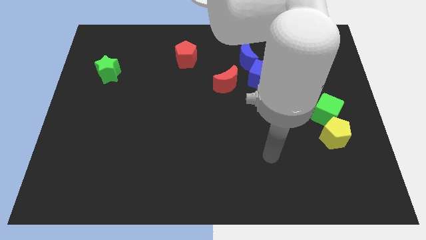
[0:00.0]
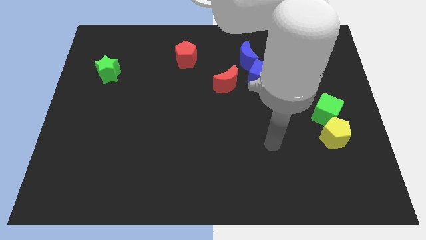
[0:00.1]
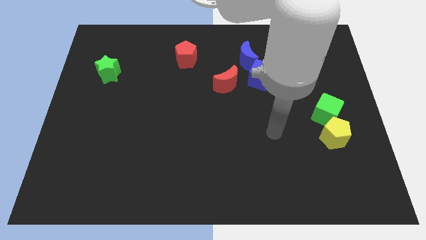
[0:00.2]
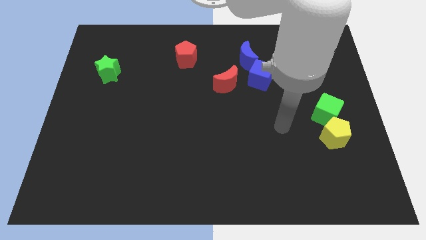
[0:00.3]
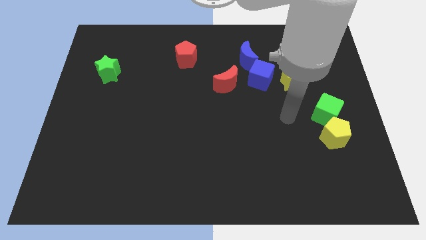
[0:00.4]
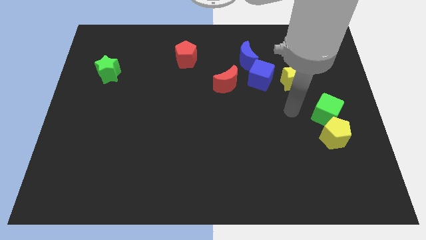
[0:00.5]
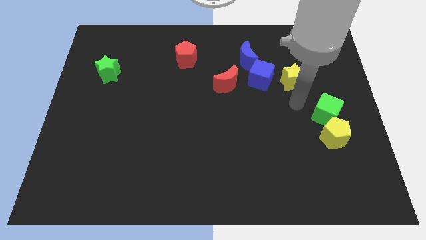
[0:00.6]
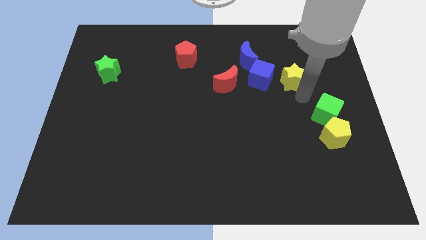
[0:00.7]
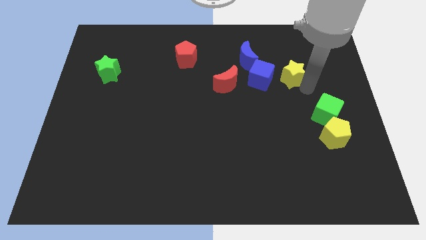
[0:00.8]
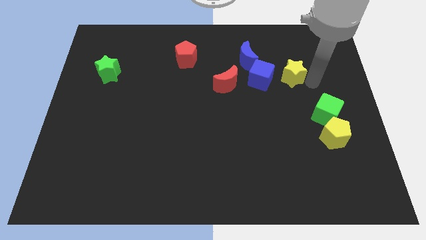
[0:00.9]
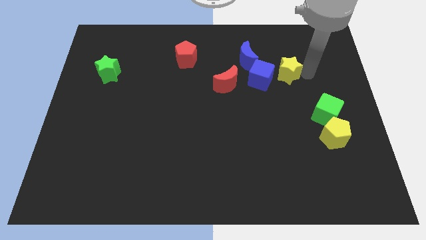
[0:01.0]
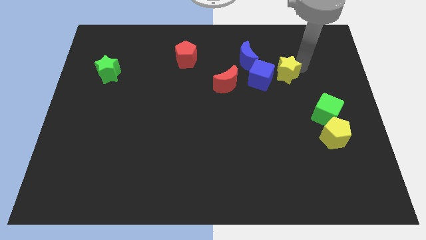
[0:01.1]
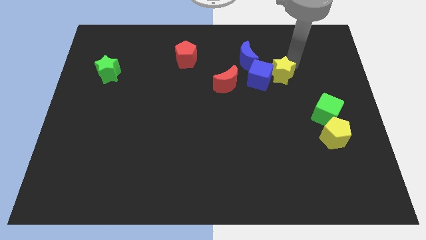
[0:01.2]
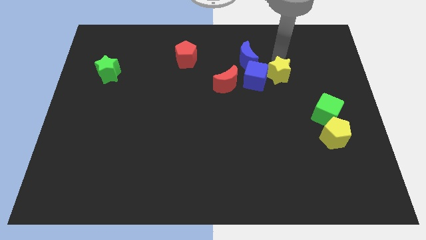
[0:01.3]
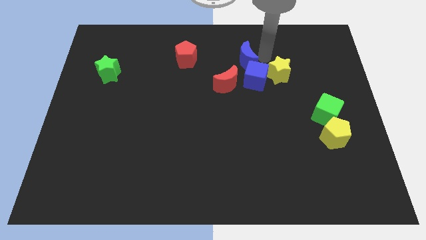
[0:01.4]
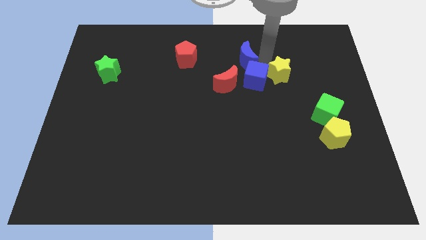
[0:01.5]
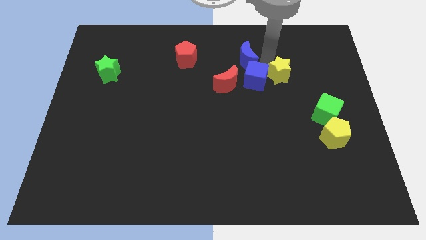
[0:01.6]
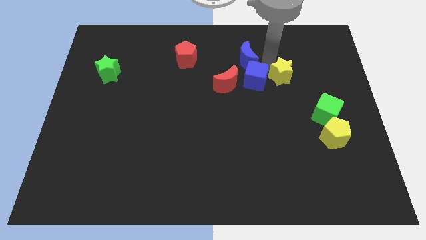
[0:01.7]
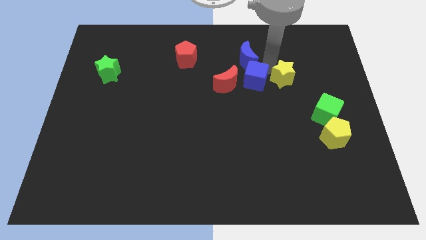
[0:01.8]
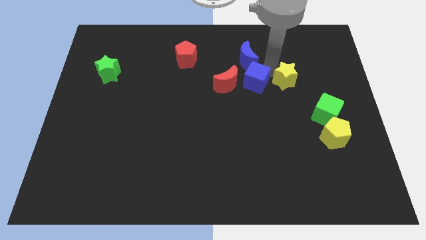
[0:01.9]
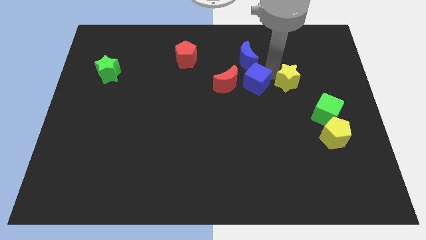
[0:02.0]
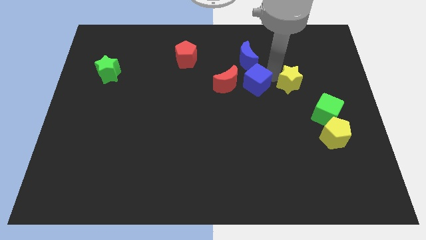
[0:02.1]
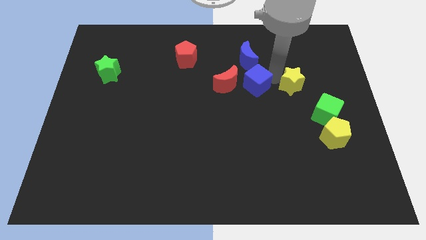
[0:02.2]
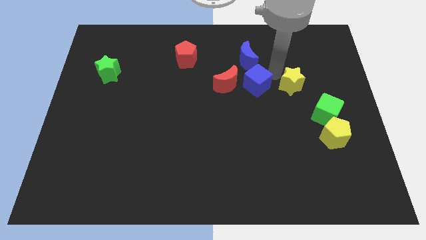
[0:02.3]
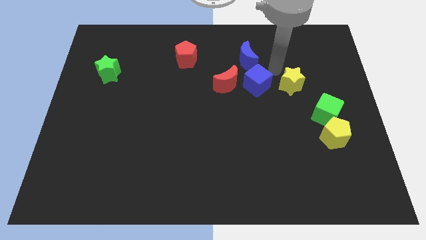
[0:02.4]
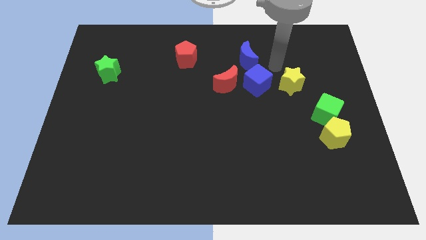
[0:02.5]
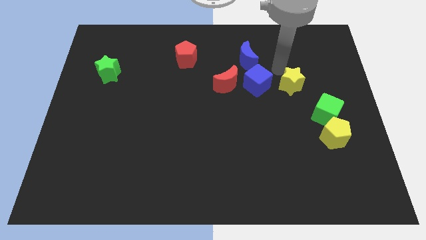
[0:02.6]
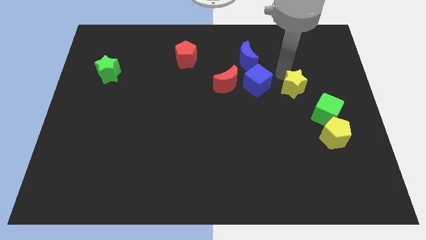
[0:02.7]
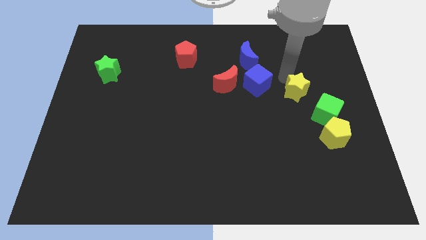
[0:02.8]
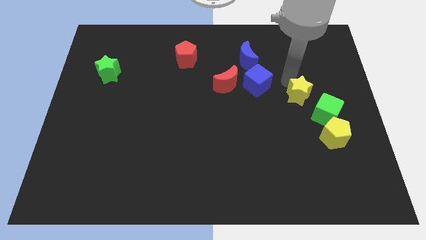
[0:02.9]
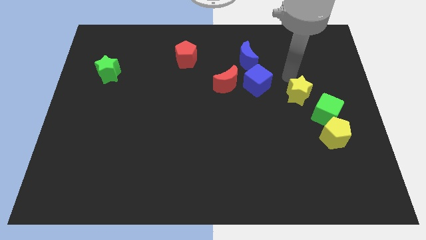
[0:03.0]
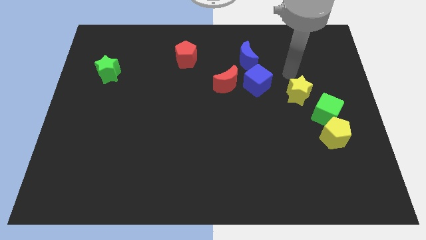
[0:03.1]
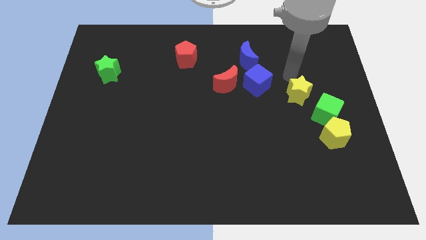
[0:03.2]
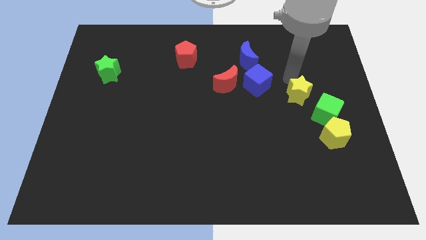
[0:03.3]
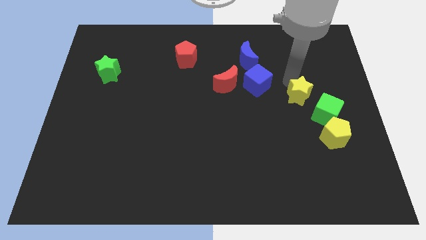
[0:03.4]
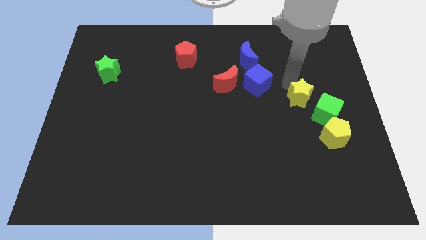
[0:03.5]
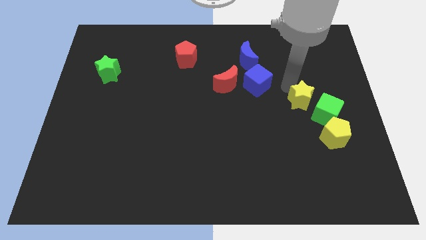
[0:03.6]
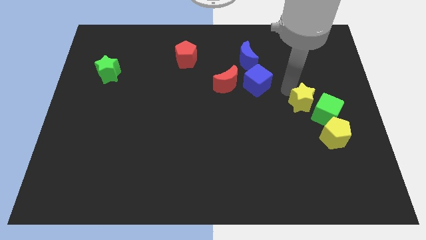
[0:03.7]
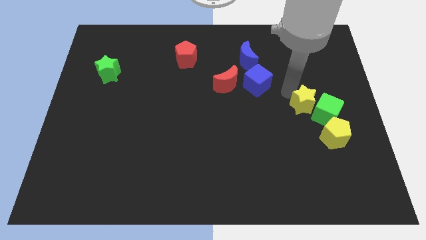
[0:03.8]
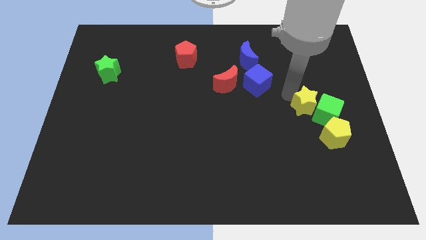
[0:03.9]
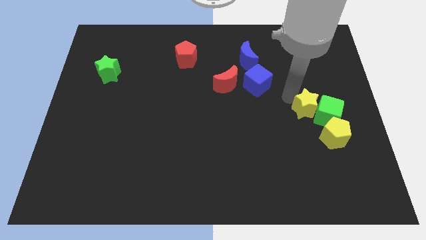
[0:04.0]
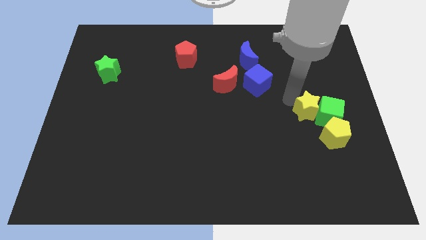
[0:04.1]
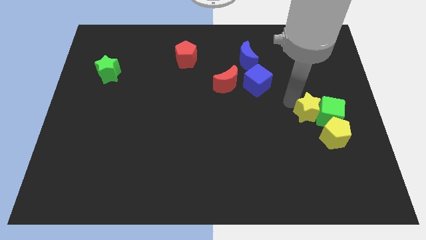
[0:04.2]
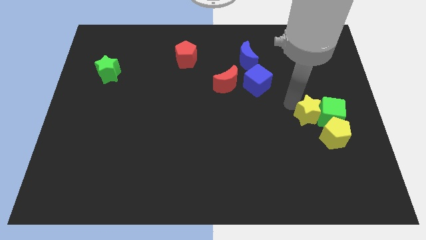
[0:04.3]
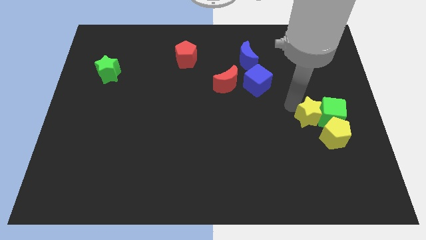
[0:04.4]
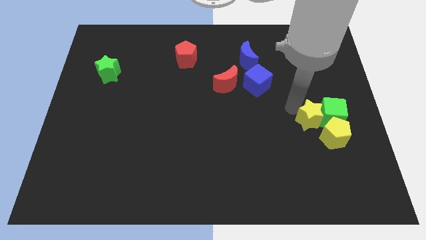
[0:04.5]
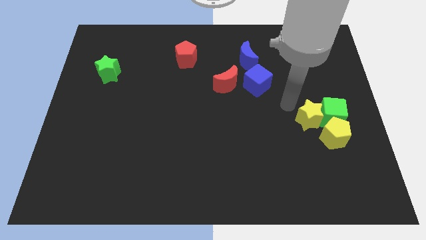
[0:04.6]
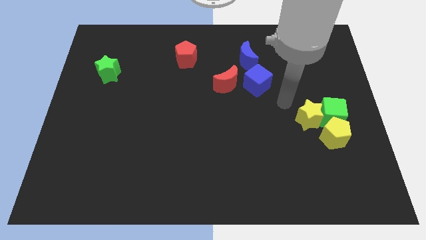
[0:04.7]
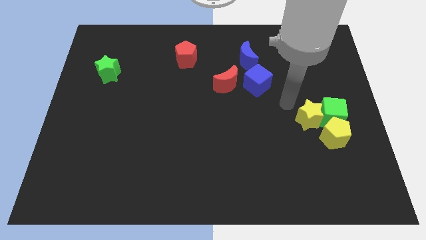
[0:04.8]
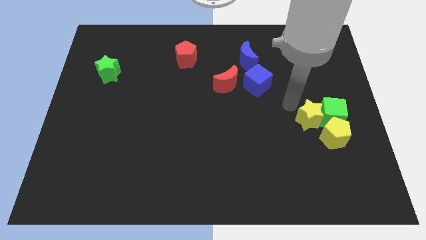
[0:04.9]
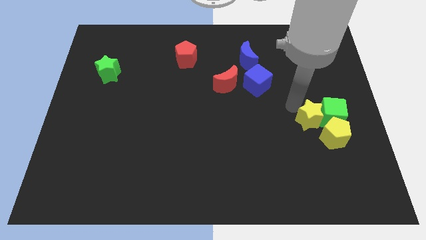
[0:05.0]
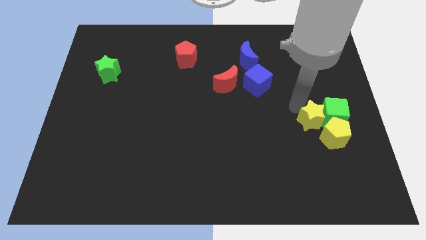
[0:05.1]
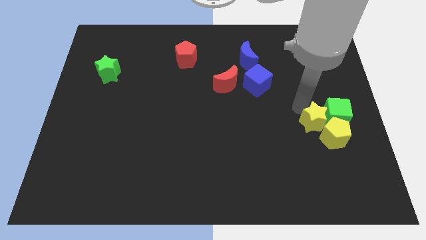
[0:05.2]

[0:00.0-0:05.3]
put the yellow star towards the yellow pentagon

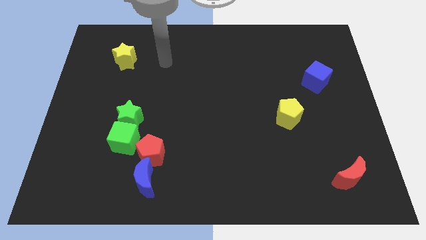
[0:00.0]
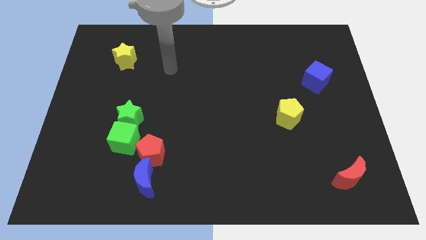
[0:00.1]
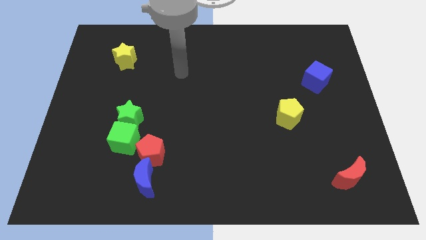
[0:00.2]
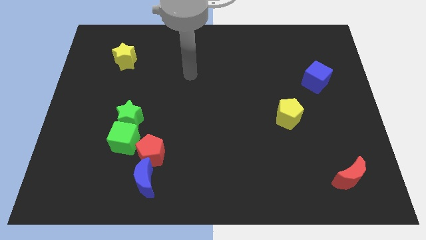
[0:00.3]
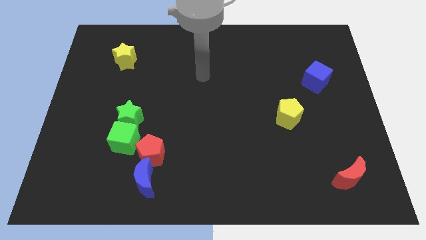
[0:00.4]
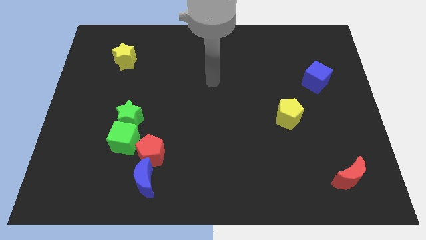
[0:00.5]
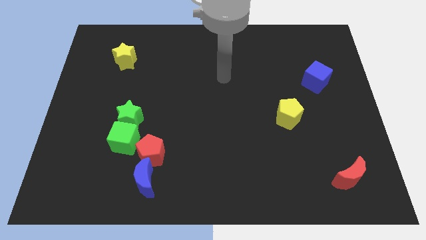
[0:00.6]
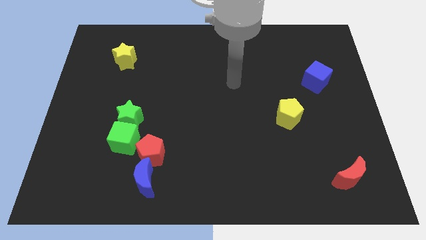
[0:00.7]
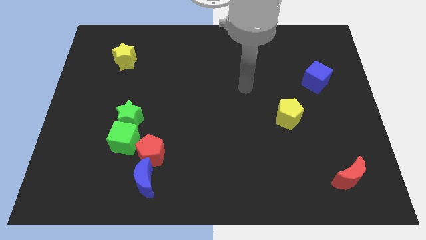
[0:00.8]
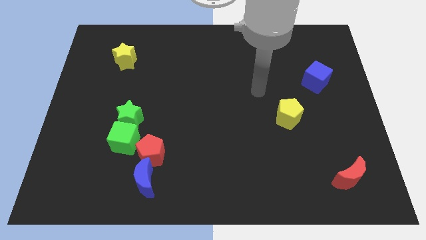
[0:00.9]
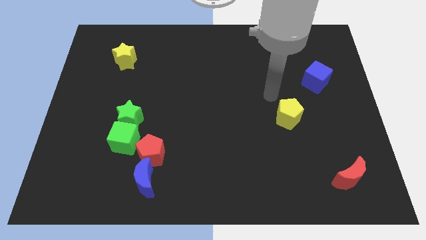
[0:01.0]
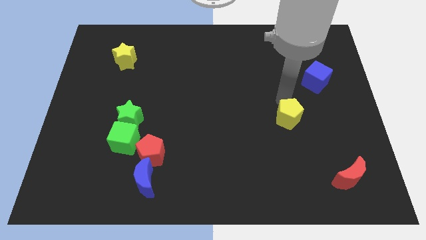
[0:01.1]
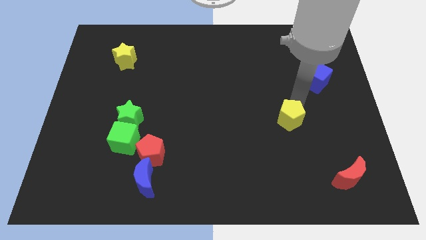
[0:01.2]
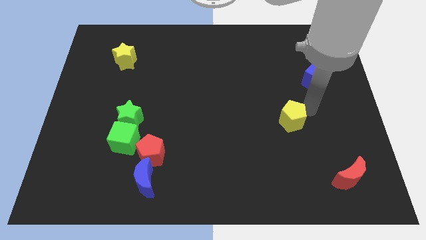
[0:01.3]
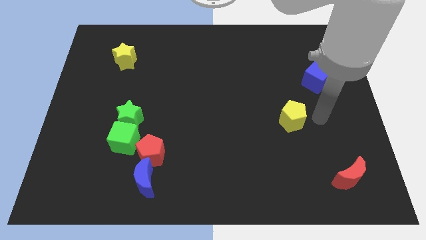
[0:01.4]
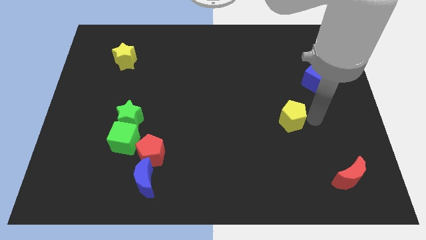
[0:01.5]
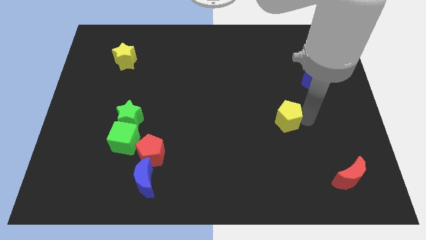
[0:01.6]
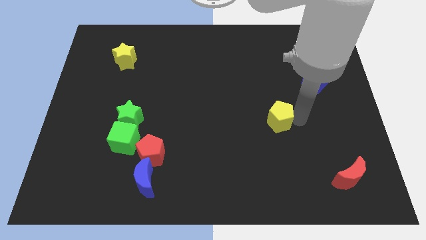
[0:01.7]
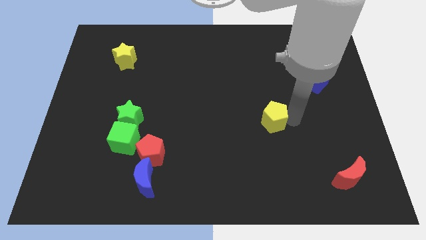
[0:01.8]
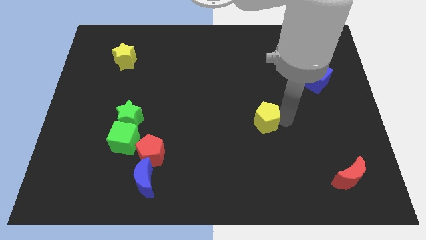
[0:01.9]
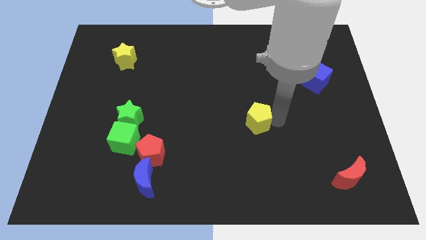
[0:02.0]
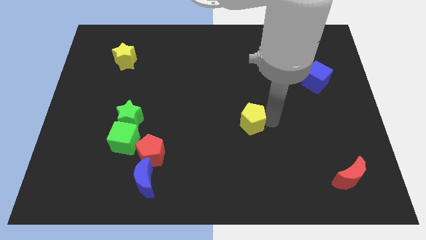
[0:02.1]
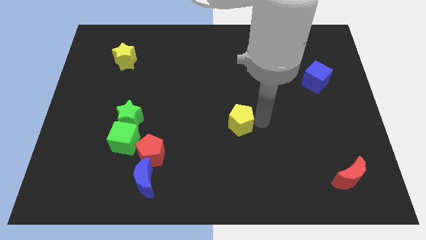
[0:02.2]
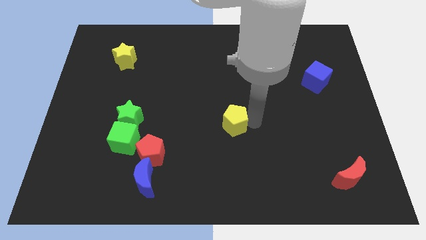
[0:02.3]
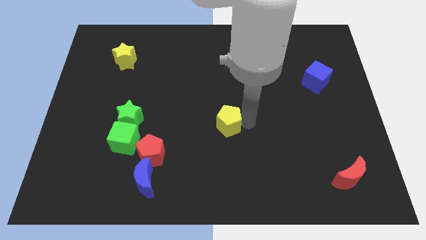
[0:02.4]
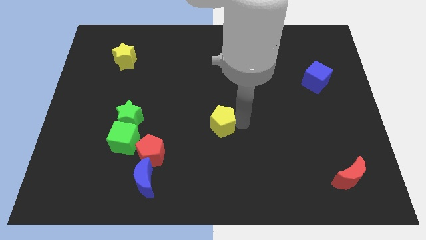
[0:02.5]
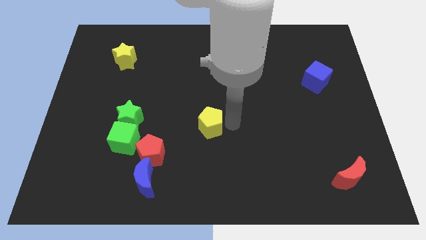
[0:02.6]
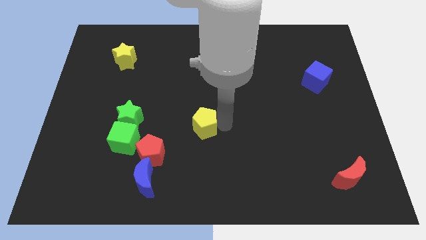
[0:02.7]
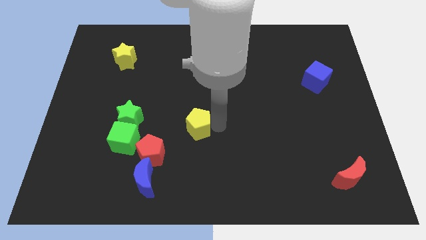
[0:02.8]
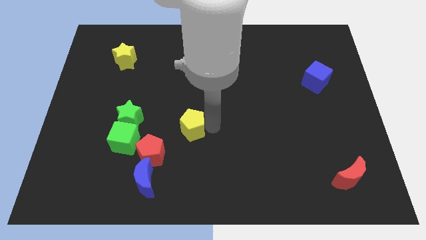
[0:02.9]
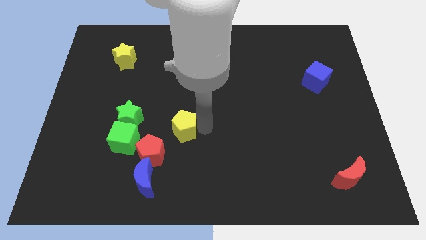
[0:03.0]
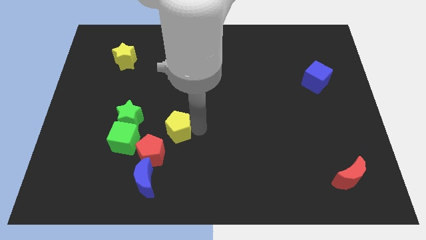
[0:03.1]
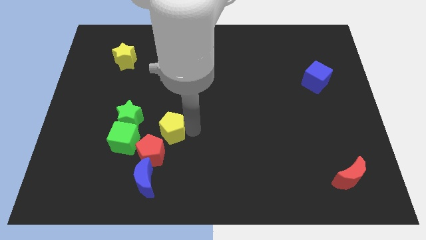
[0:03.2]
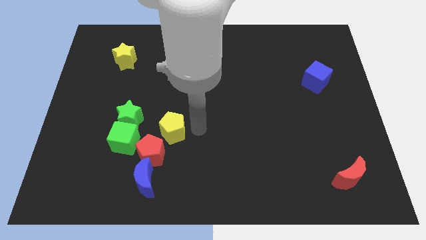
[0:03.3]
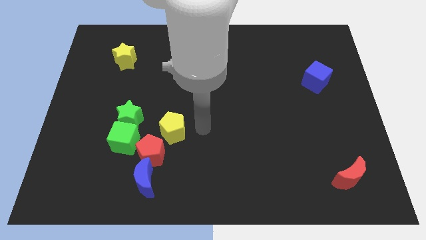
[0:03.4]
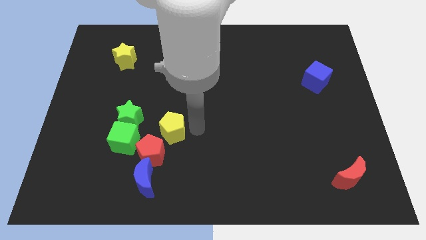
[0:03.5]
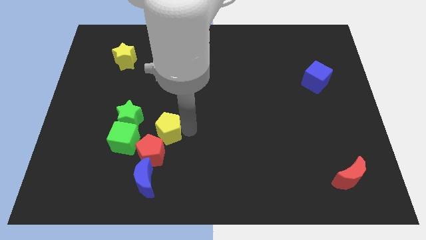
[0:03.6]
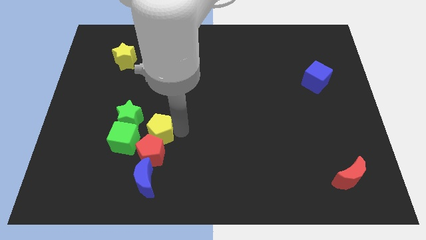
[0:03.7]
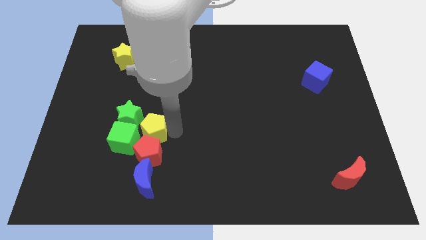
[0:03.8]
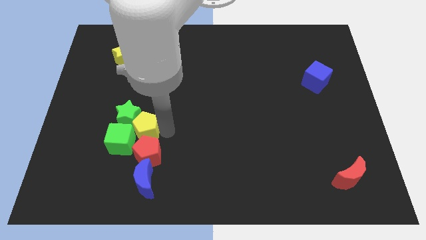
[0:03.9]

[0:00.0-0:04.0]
put the yellow pentagon to the green cube
